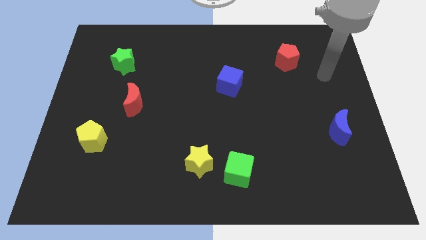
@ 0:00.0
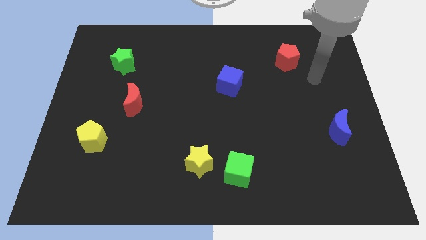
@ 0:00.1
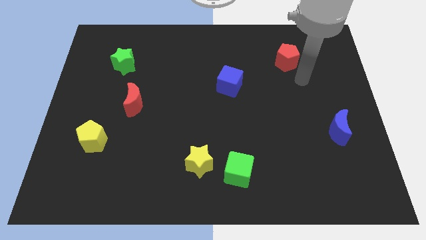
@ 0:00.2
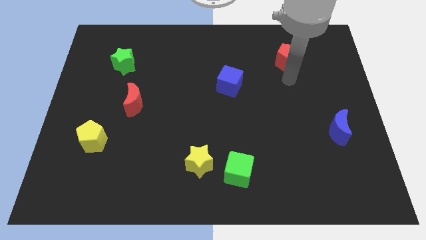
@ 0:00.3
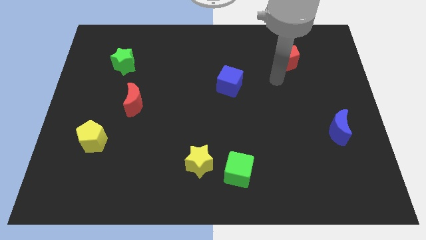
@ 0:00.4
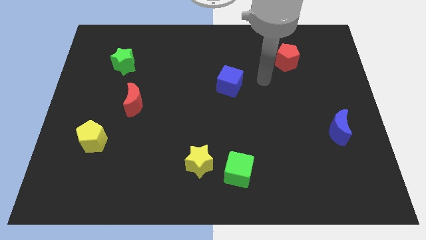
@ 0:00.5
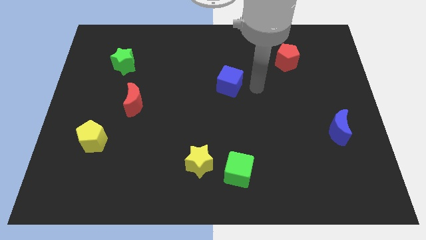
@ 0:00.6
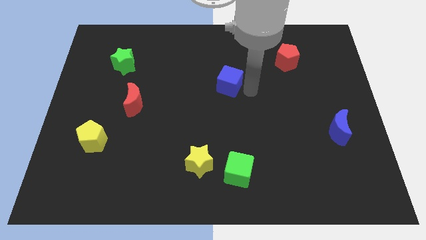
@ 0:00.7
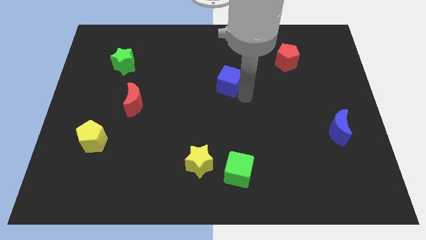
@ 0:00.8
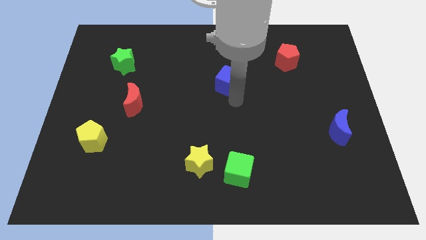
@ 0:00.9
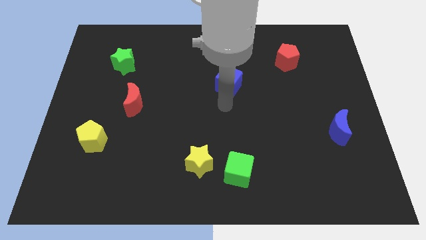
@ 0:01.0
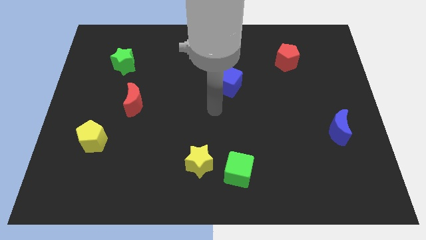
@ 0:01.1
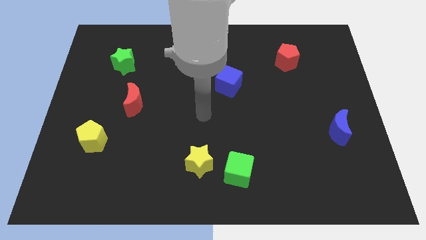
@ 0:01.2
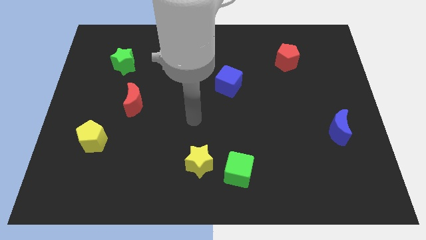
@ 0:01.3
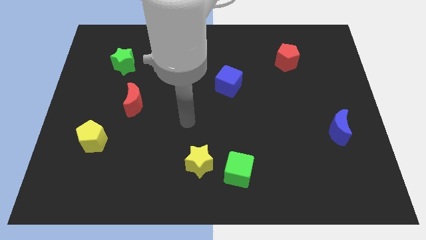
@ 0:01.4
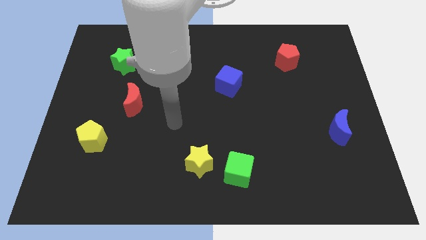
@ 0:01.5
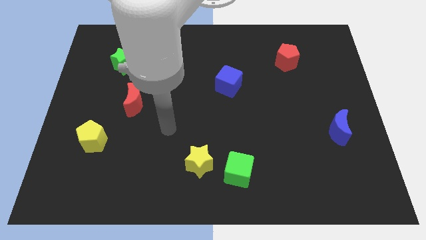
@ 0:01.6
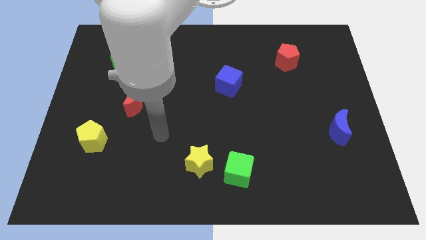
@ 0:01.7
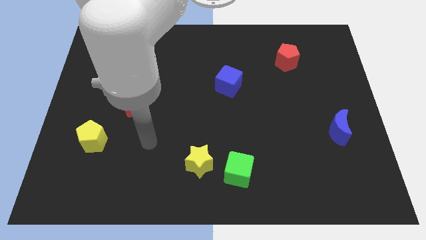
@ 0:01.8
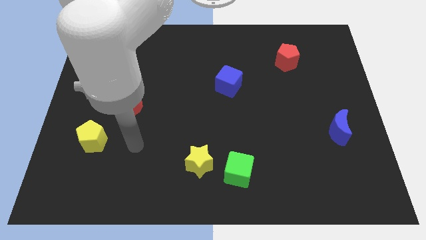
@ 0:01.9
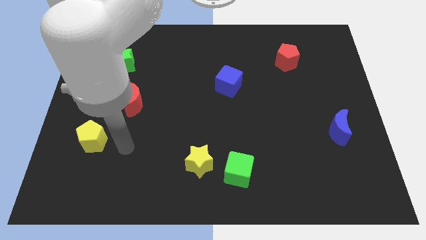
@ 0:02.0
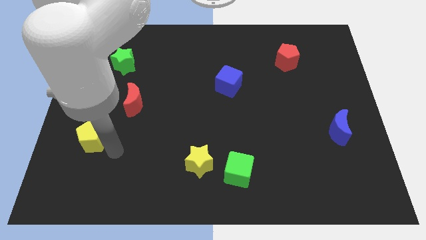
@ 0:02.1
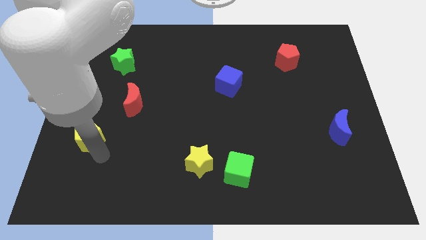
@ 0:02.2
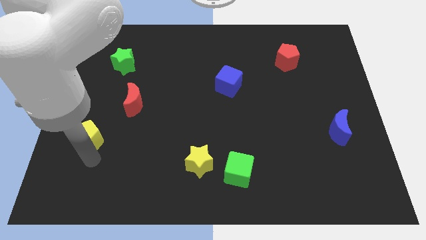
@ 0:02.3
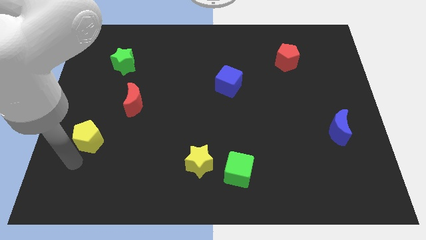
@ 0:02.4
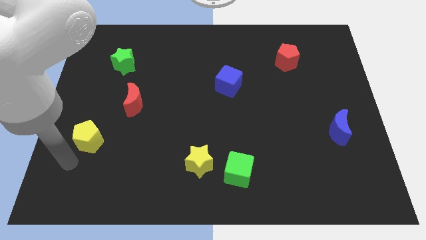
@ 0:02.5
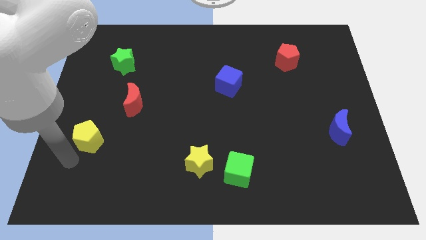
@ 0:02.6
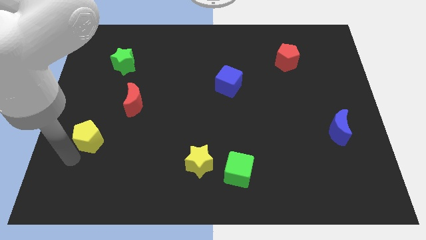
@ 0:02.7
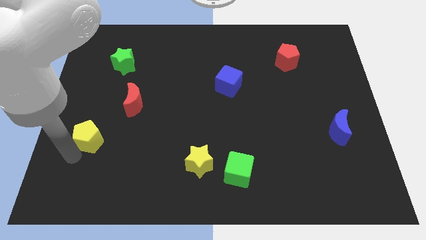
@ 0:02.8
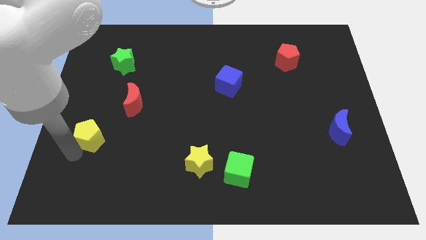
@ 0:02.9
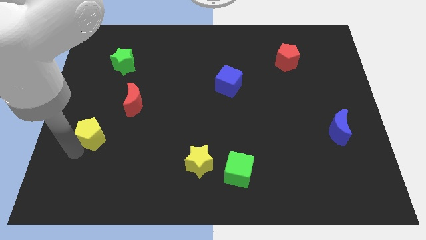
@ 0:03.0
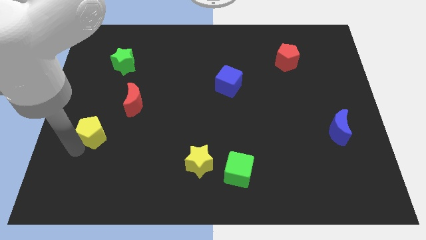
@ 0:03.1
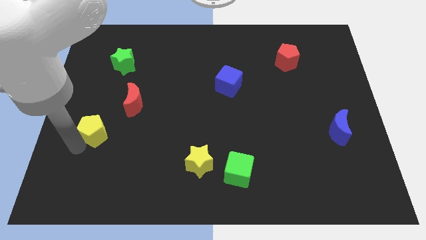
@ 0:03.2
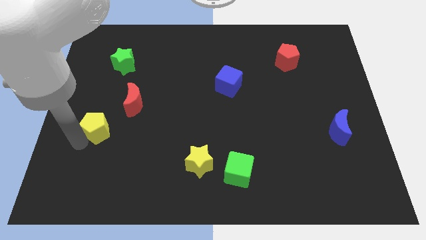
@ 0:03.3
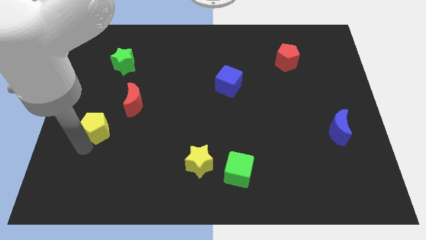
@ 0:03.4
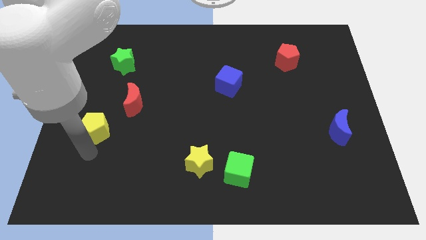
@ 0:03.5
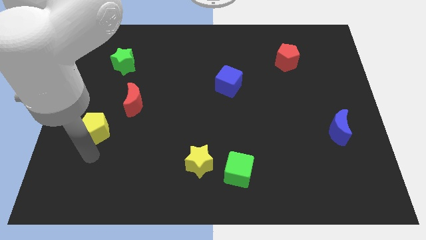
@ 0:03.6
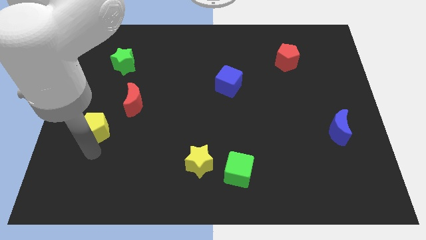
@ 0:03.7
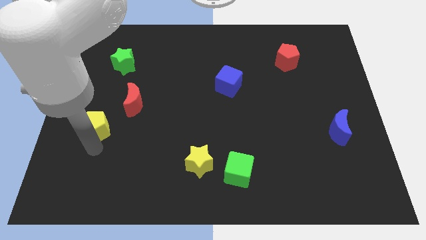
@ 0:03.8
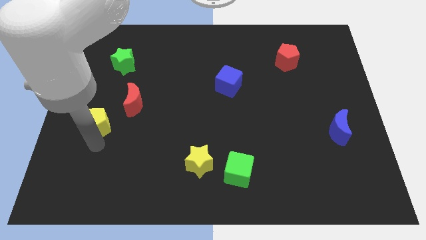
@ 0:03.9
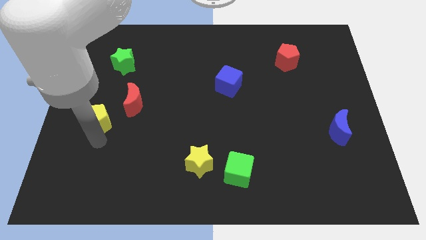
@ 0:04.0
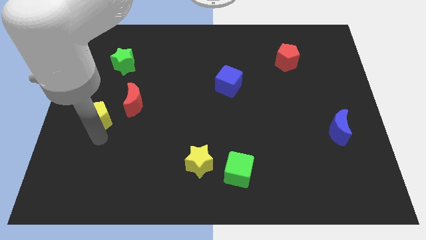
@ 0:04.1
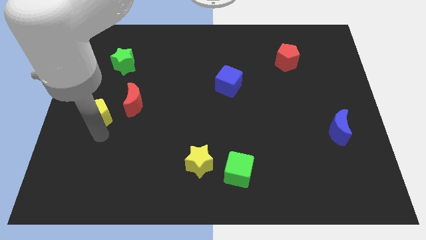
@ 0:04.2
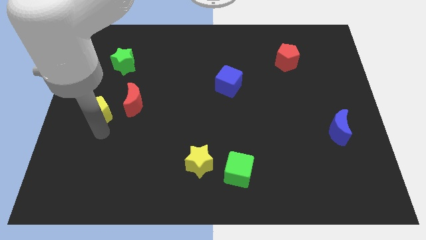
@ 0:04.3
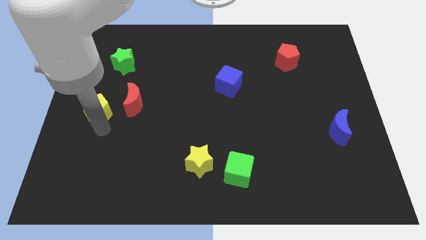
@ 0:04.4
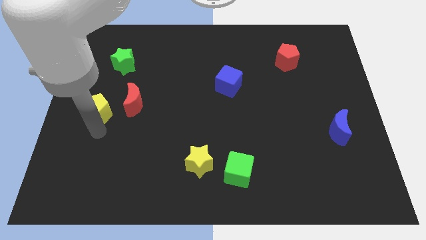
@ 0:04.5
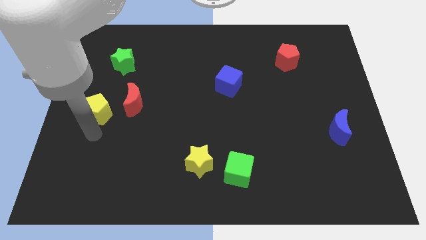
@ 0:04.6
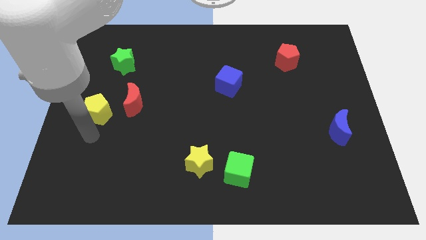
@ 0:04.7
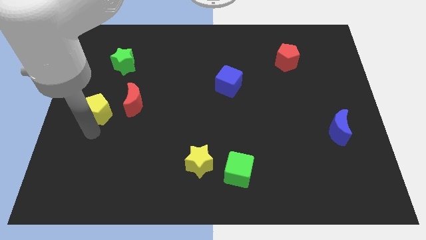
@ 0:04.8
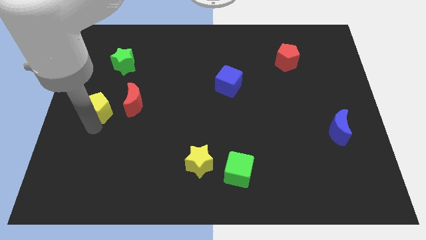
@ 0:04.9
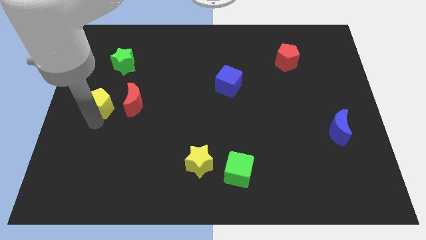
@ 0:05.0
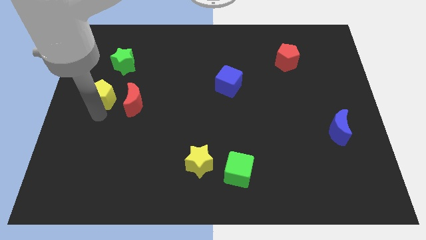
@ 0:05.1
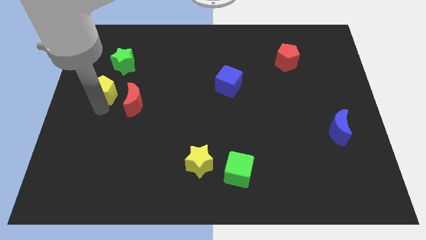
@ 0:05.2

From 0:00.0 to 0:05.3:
move the yellow pentagon to the bottom left side of the green star

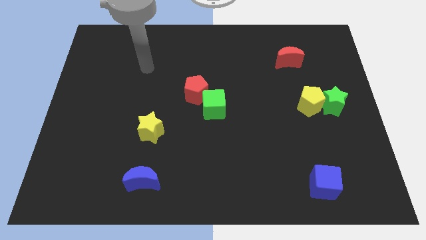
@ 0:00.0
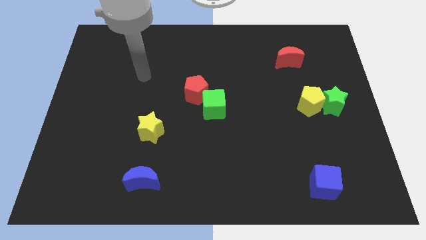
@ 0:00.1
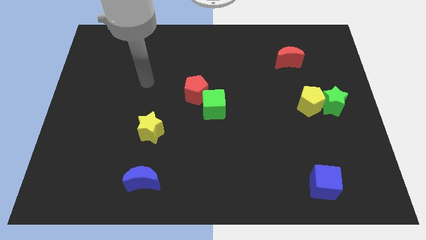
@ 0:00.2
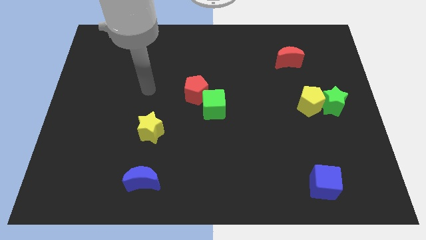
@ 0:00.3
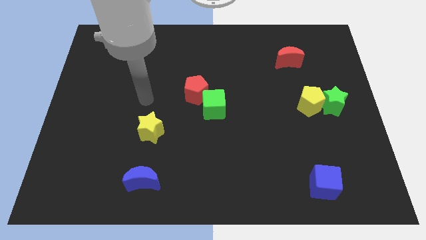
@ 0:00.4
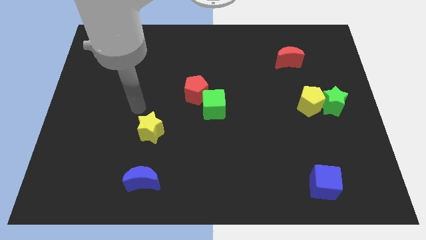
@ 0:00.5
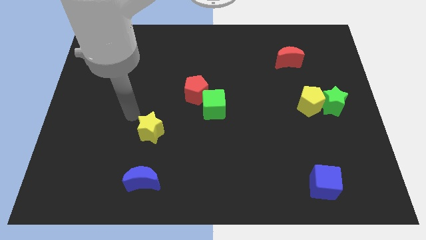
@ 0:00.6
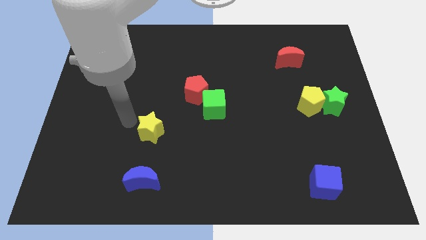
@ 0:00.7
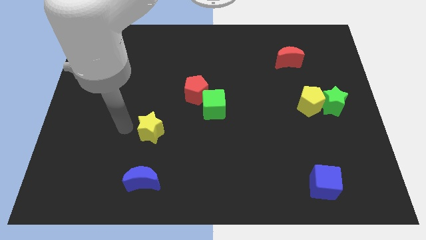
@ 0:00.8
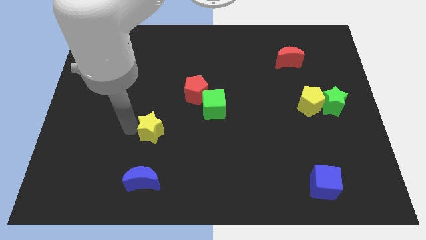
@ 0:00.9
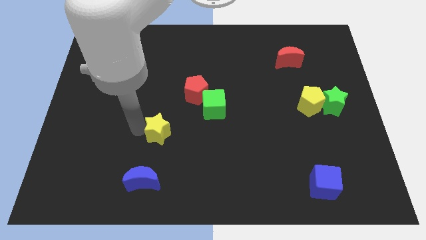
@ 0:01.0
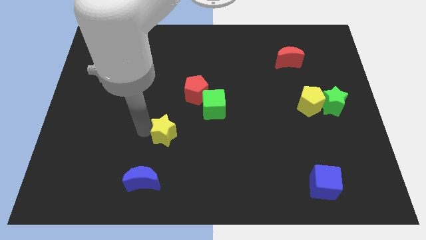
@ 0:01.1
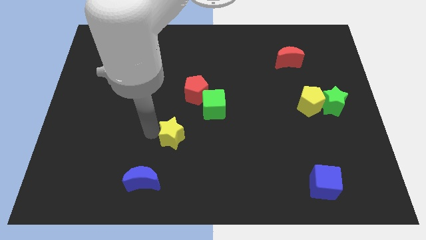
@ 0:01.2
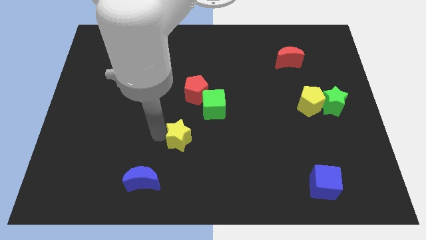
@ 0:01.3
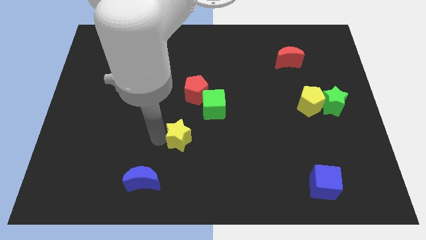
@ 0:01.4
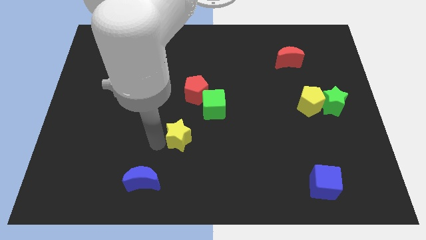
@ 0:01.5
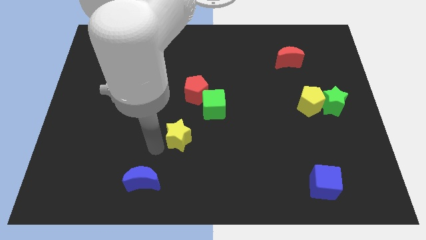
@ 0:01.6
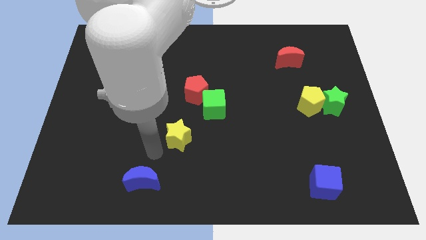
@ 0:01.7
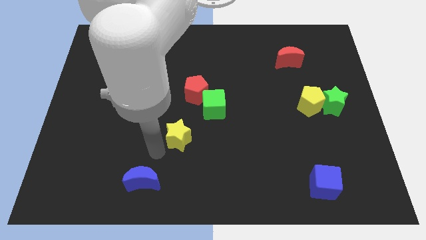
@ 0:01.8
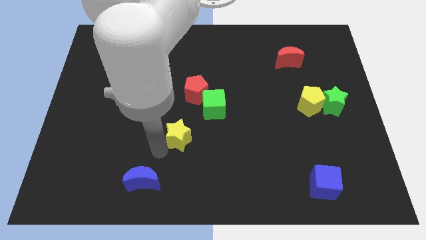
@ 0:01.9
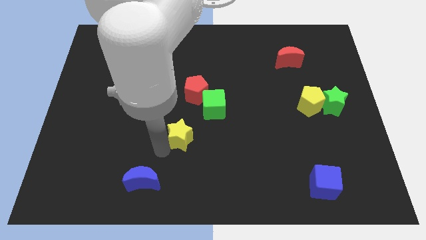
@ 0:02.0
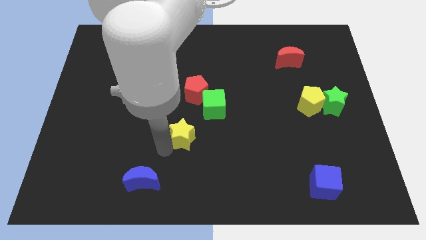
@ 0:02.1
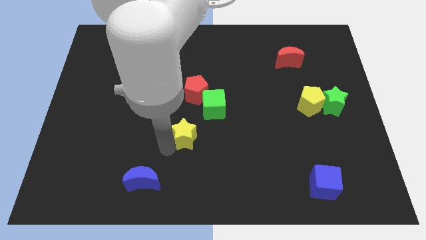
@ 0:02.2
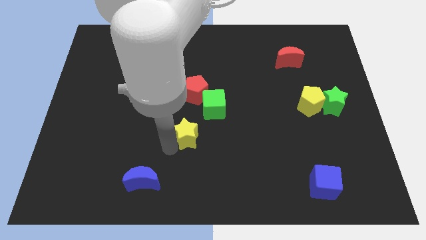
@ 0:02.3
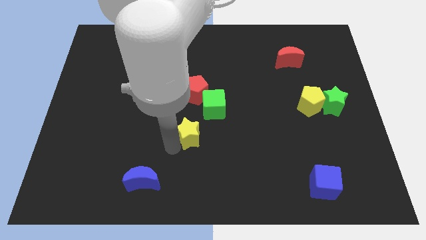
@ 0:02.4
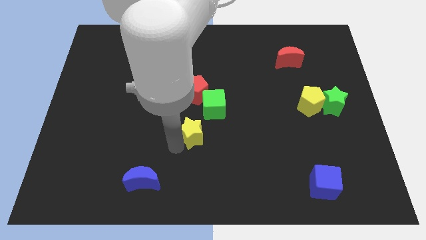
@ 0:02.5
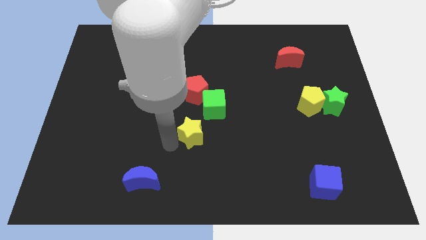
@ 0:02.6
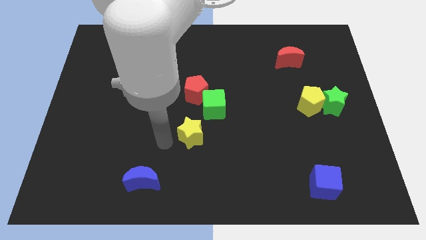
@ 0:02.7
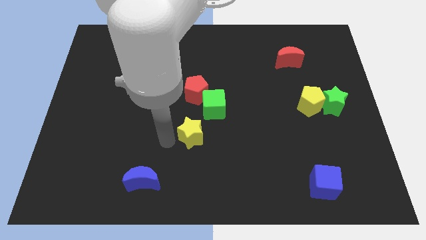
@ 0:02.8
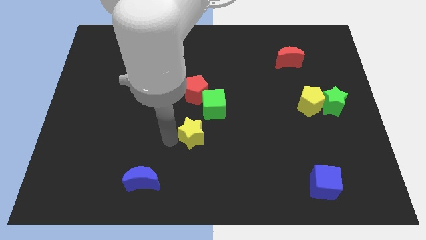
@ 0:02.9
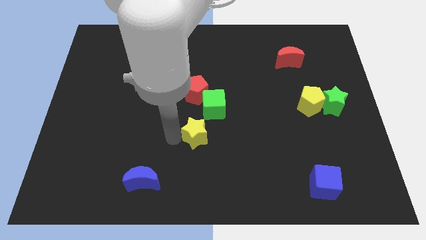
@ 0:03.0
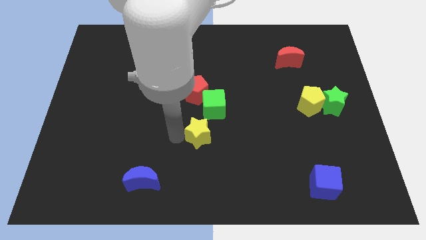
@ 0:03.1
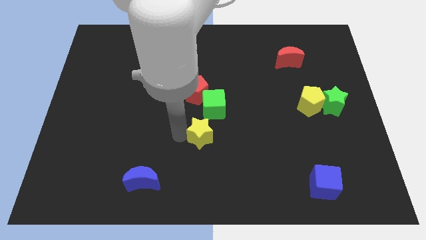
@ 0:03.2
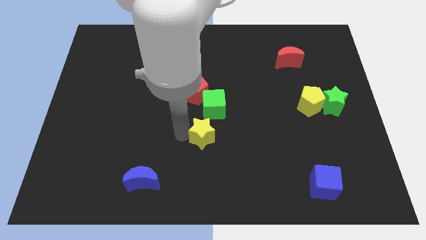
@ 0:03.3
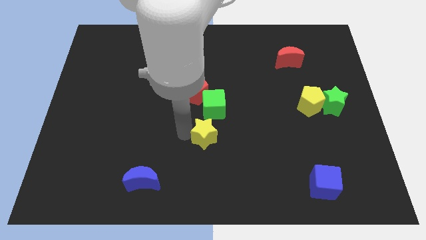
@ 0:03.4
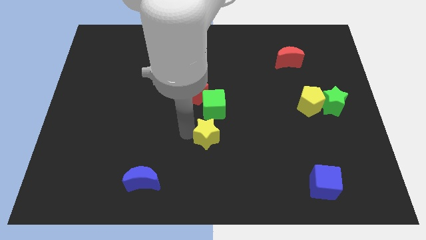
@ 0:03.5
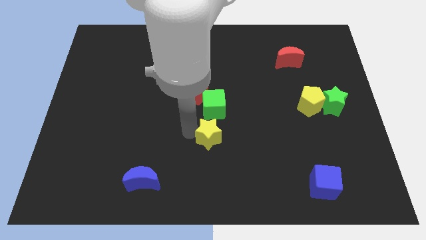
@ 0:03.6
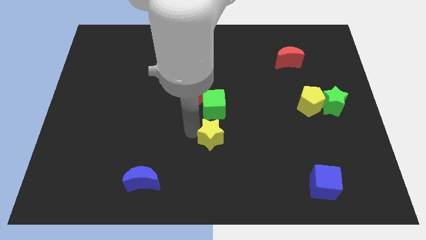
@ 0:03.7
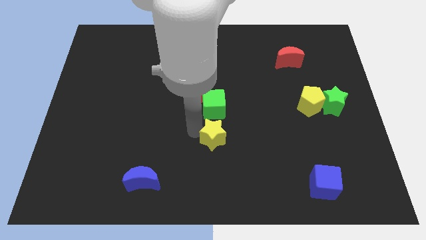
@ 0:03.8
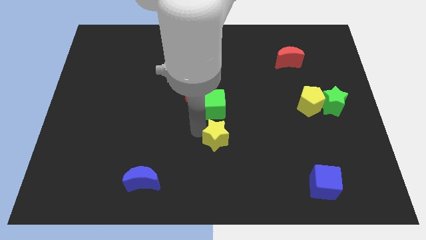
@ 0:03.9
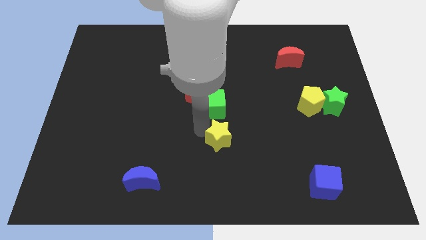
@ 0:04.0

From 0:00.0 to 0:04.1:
slide the yellow star diagonally down and to the right of the green cube
